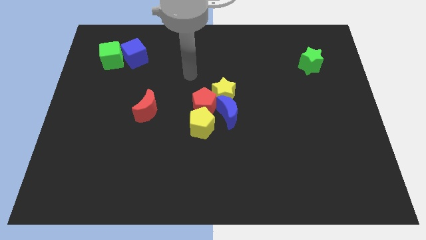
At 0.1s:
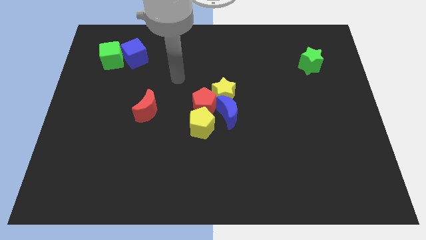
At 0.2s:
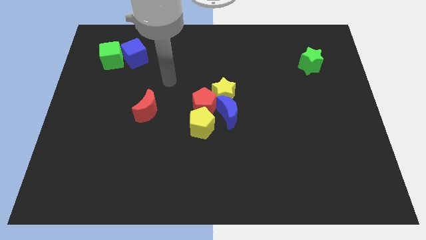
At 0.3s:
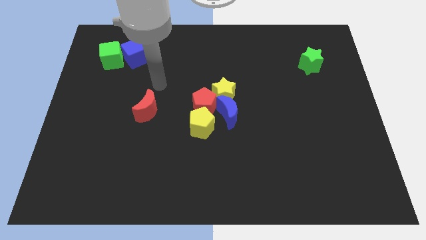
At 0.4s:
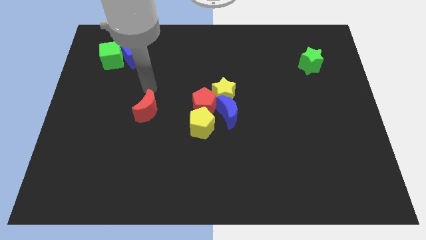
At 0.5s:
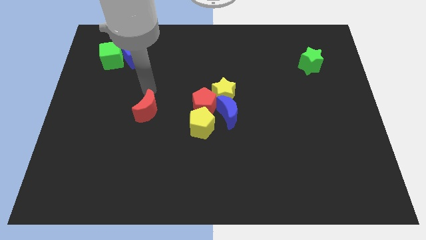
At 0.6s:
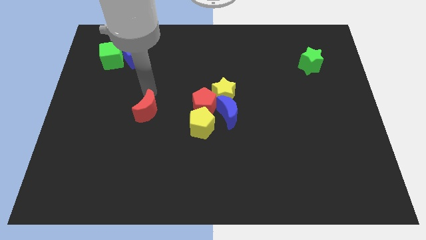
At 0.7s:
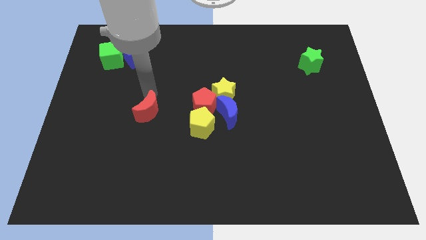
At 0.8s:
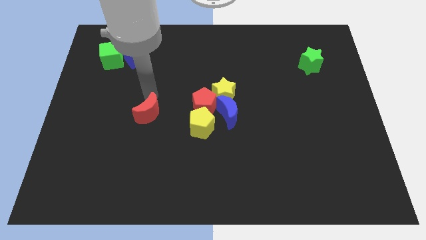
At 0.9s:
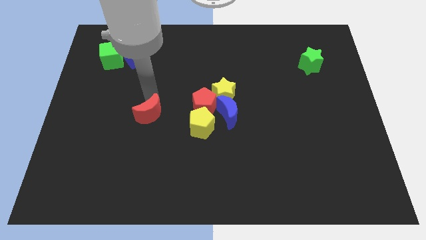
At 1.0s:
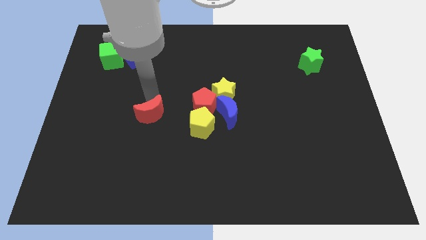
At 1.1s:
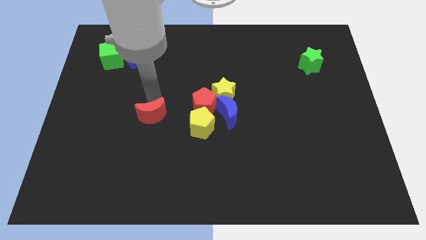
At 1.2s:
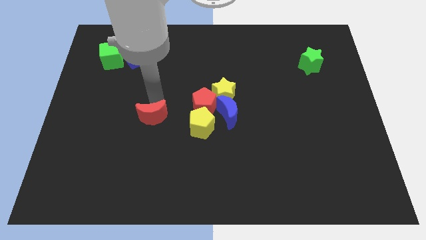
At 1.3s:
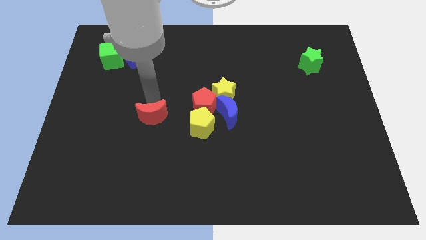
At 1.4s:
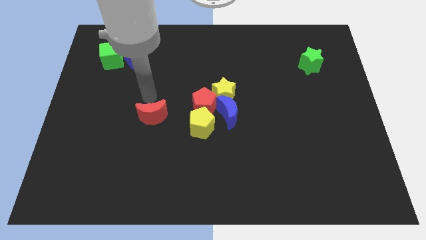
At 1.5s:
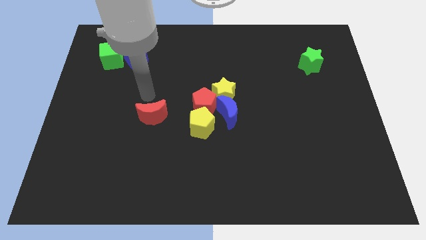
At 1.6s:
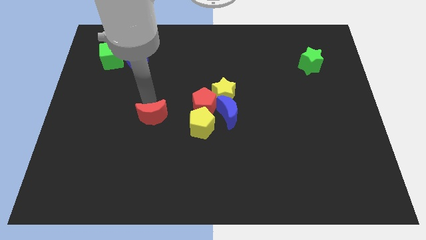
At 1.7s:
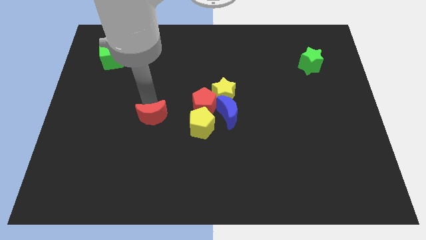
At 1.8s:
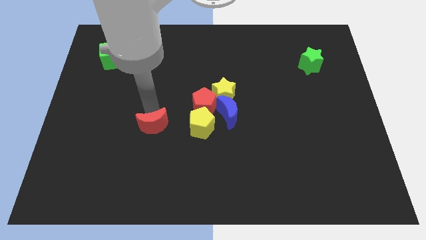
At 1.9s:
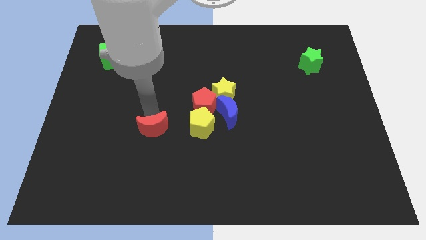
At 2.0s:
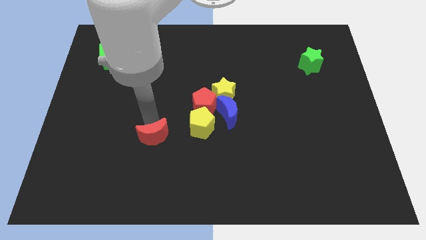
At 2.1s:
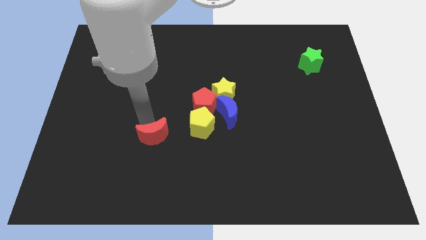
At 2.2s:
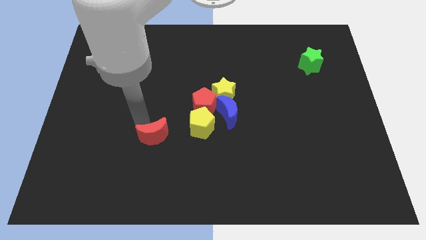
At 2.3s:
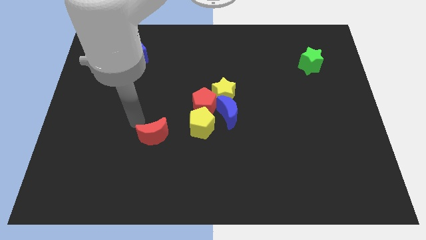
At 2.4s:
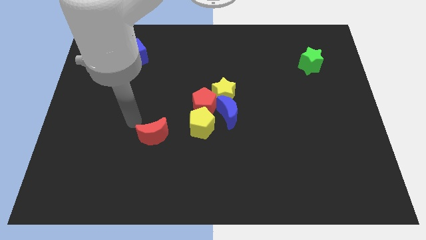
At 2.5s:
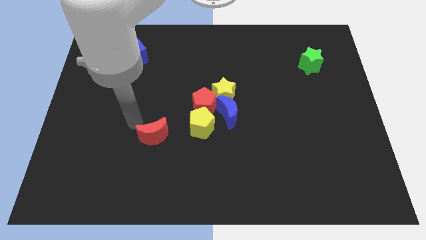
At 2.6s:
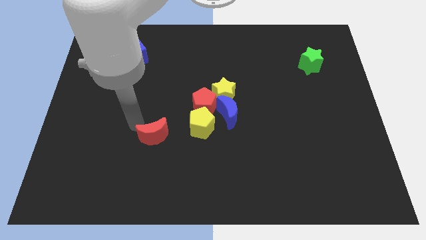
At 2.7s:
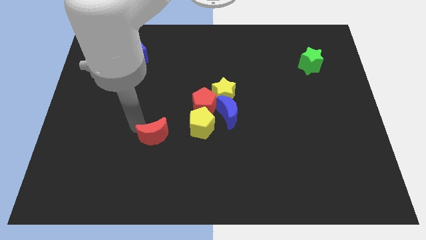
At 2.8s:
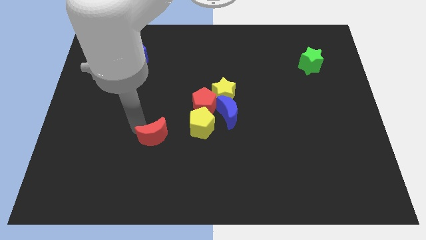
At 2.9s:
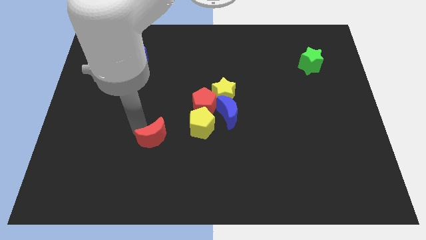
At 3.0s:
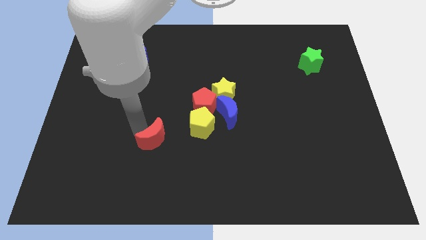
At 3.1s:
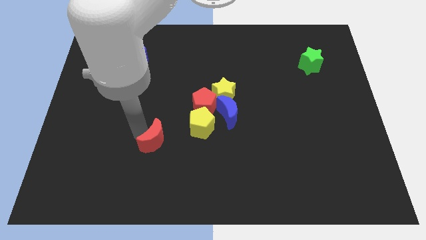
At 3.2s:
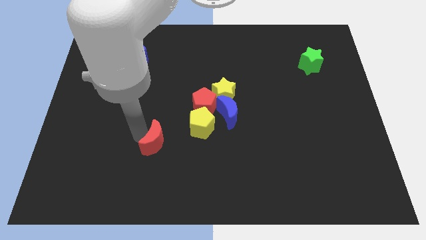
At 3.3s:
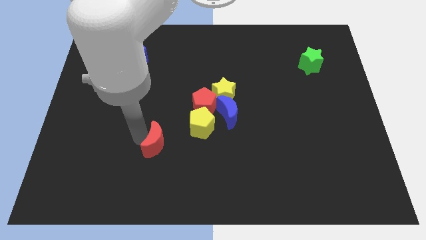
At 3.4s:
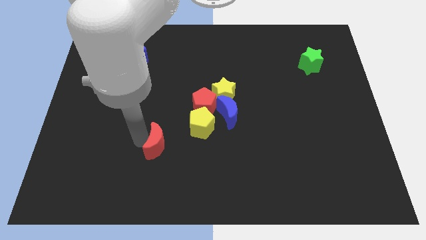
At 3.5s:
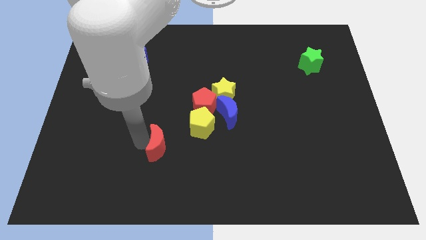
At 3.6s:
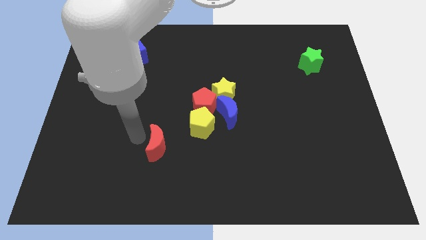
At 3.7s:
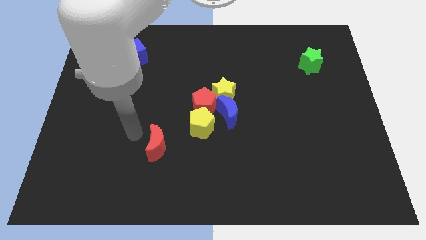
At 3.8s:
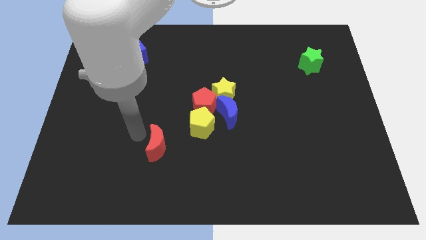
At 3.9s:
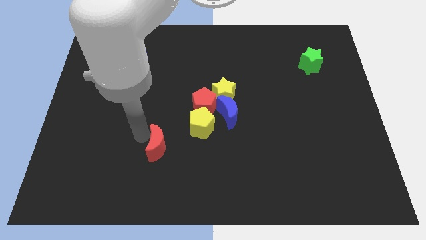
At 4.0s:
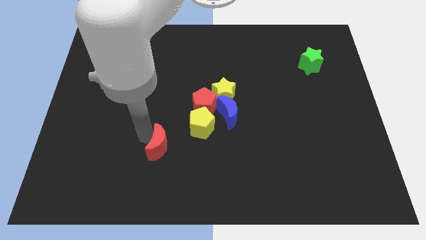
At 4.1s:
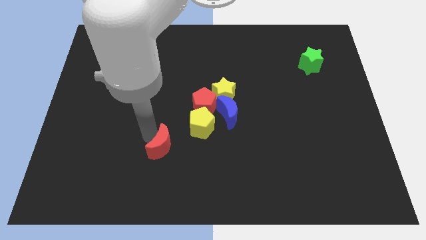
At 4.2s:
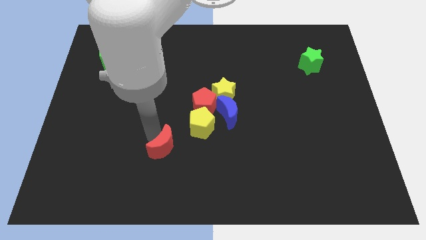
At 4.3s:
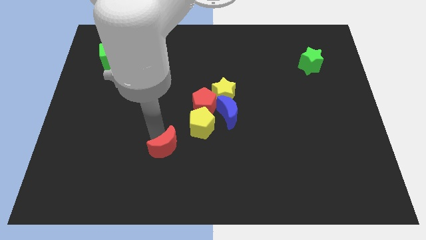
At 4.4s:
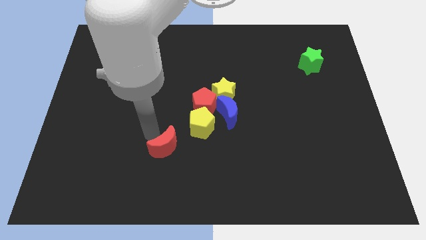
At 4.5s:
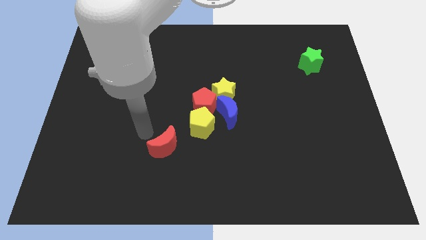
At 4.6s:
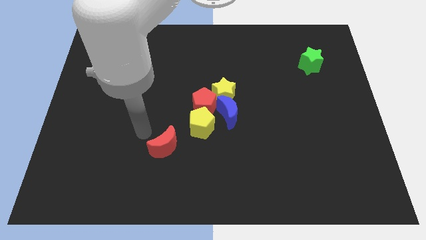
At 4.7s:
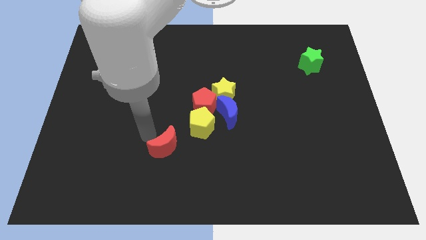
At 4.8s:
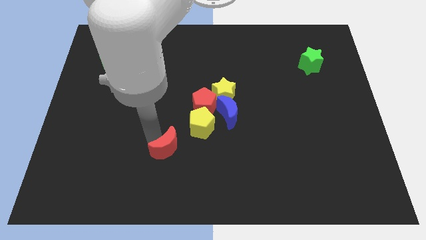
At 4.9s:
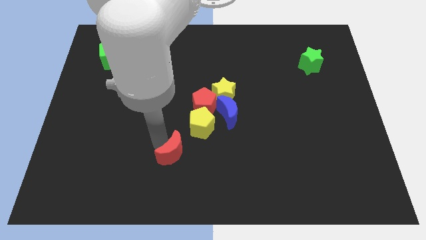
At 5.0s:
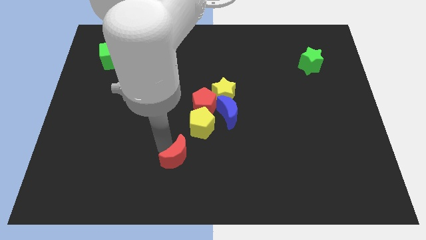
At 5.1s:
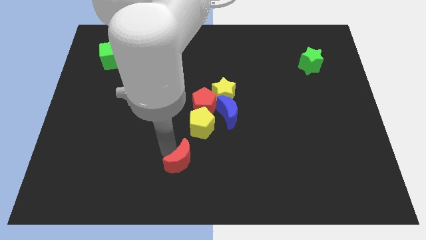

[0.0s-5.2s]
push the red moon to the bottom

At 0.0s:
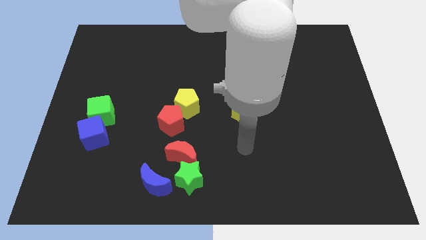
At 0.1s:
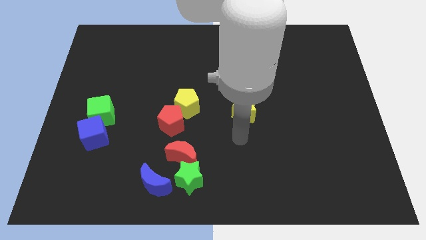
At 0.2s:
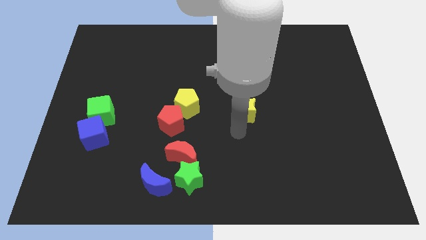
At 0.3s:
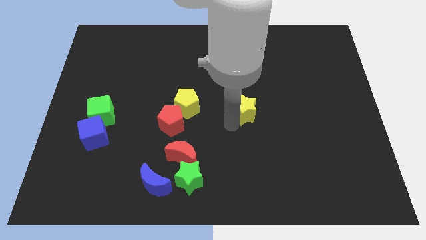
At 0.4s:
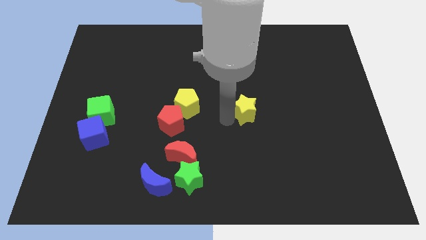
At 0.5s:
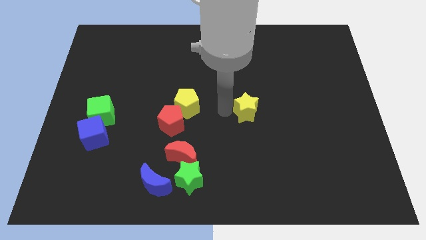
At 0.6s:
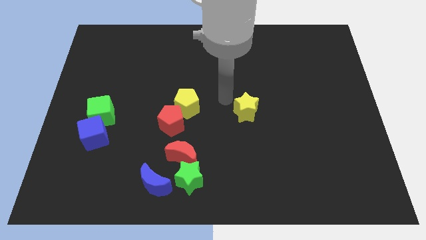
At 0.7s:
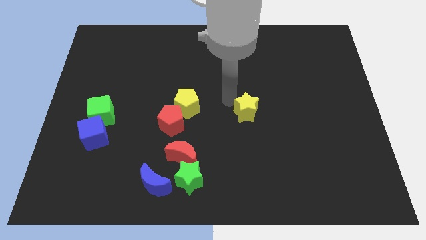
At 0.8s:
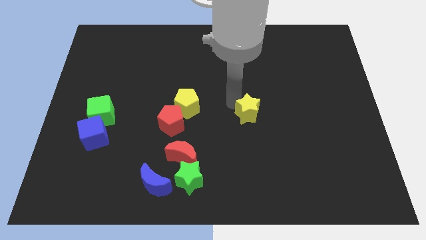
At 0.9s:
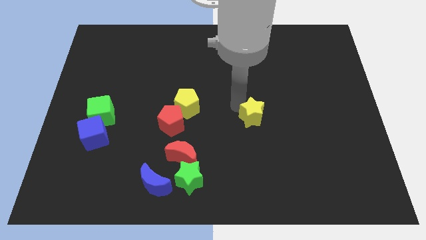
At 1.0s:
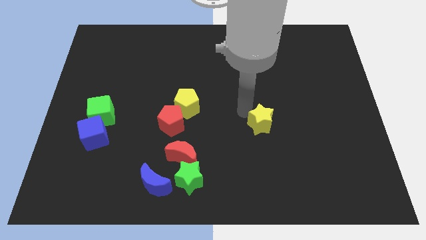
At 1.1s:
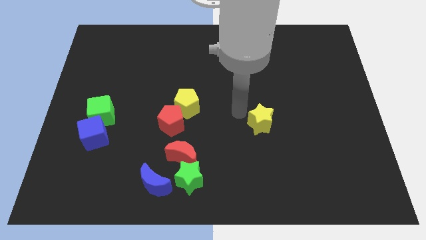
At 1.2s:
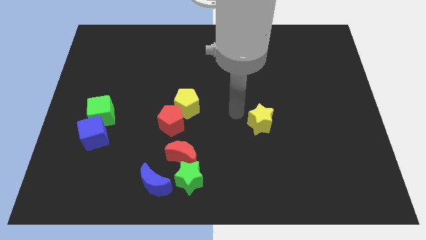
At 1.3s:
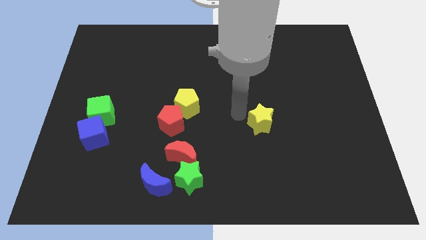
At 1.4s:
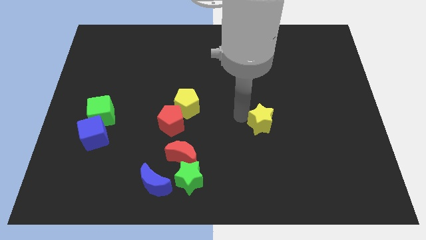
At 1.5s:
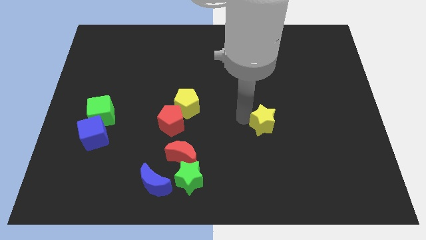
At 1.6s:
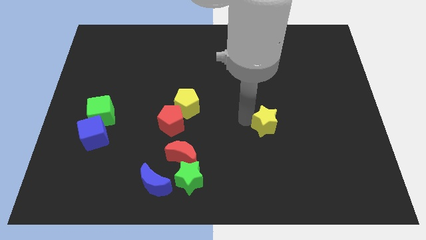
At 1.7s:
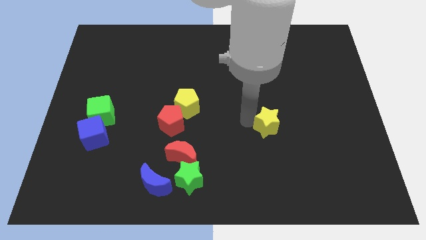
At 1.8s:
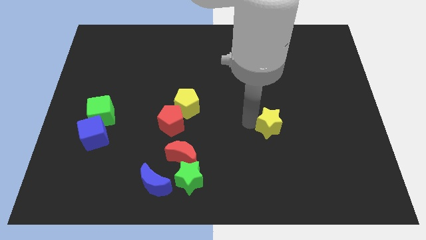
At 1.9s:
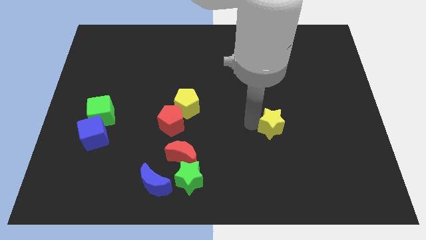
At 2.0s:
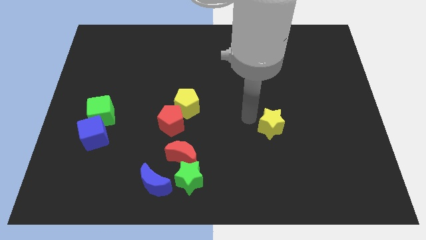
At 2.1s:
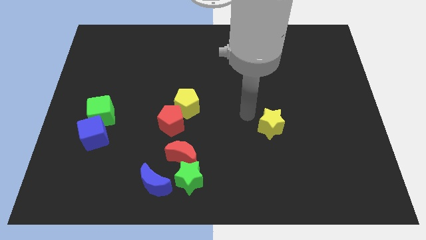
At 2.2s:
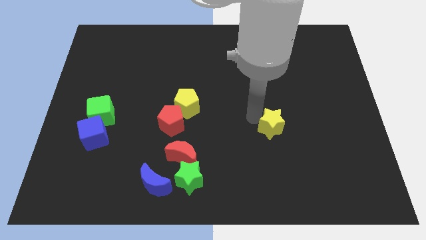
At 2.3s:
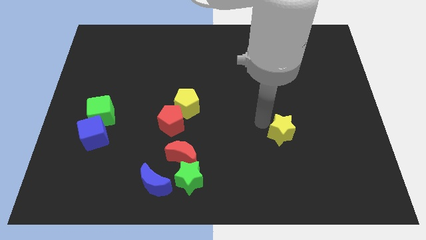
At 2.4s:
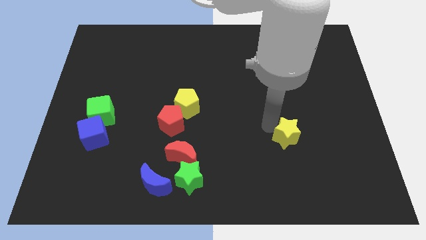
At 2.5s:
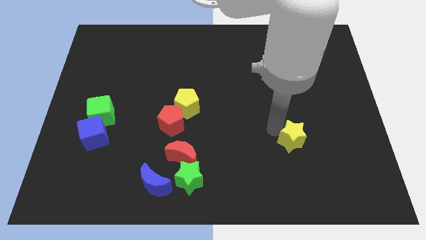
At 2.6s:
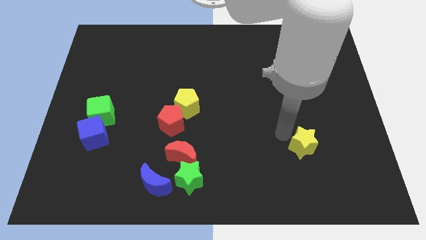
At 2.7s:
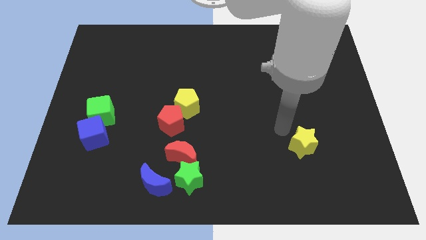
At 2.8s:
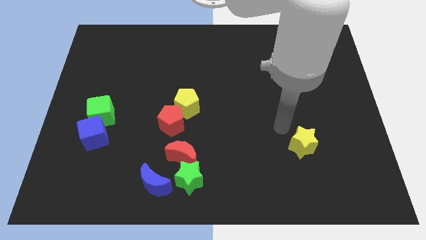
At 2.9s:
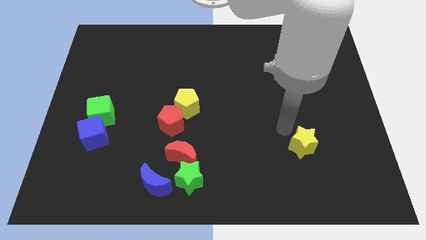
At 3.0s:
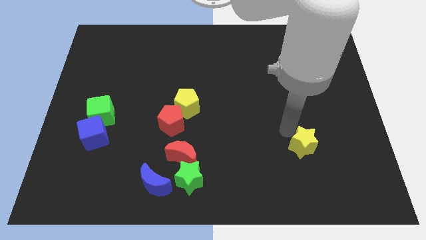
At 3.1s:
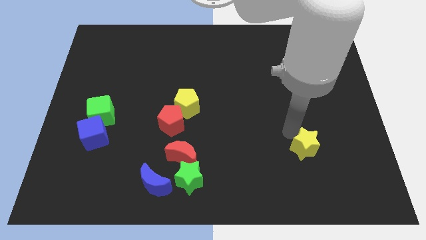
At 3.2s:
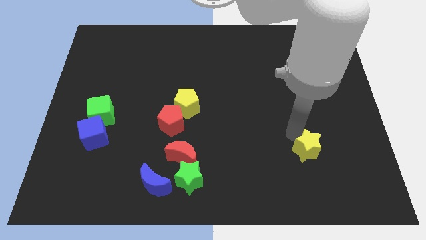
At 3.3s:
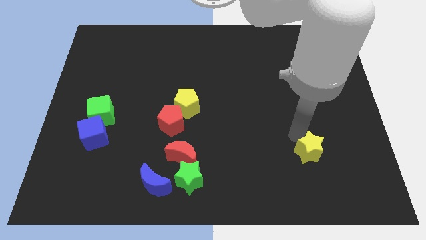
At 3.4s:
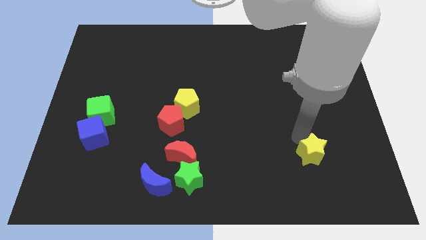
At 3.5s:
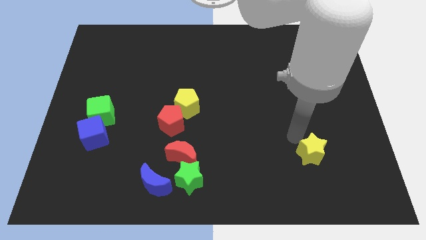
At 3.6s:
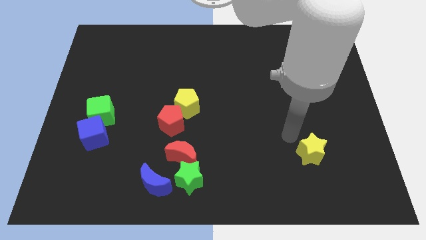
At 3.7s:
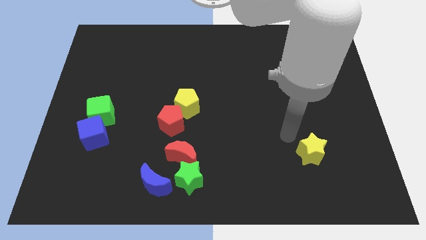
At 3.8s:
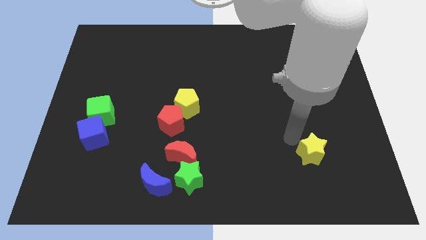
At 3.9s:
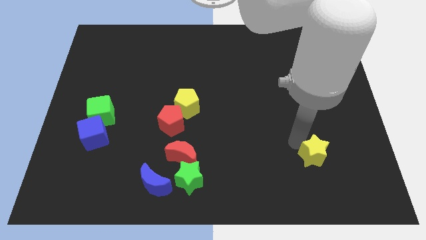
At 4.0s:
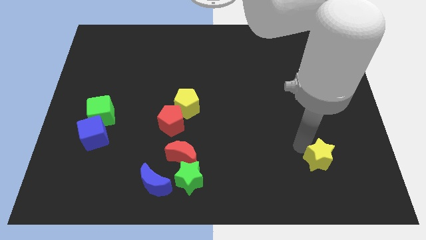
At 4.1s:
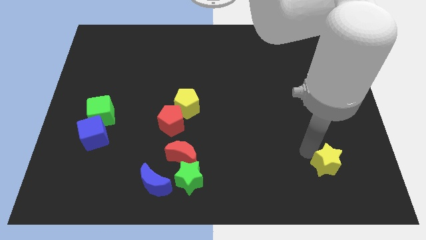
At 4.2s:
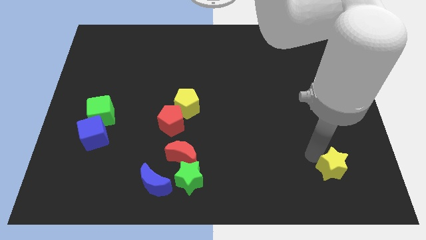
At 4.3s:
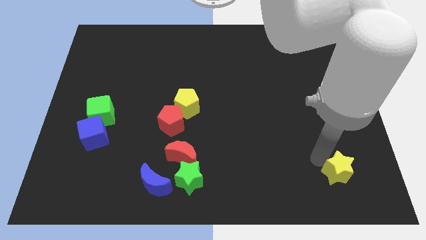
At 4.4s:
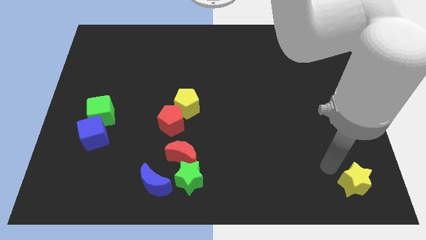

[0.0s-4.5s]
push the yellow star to the bottom right of the board
